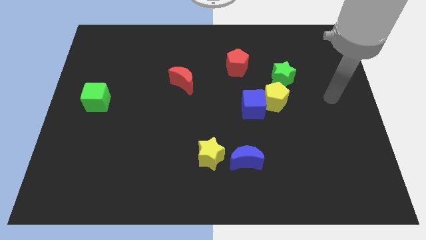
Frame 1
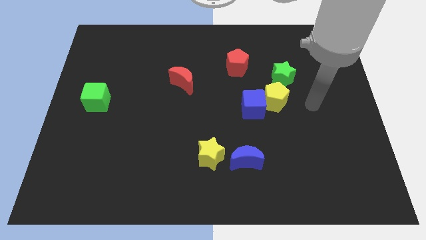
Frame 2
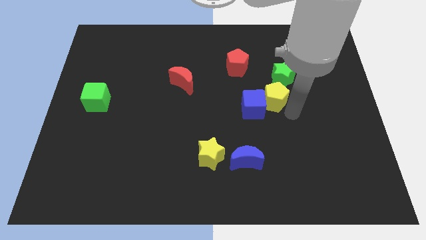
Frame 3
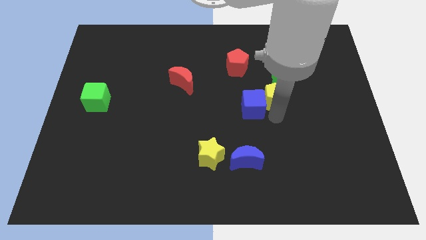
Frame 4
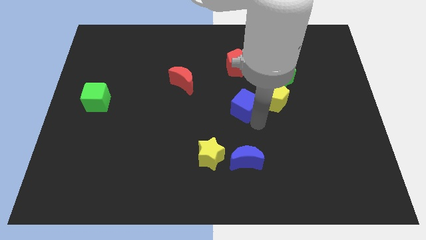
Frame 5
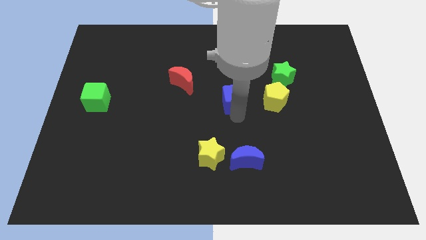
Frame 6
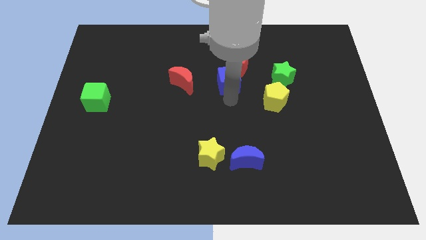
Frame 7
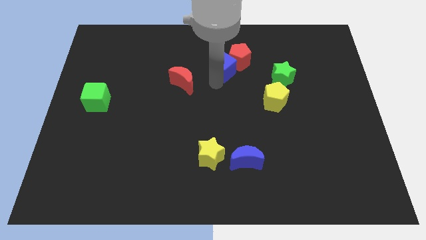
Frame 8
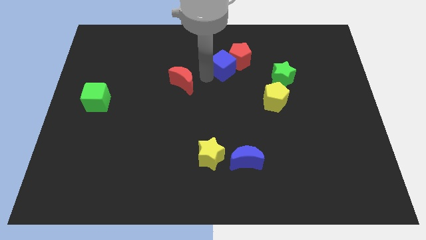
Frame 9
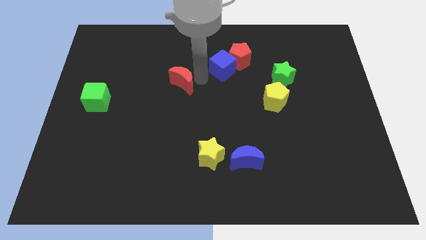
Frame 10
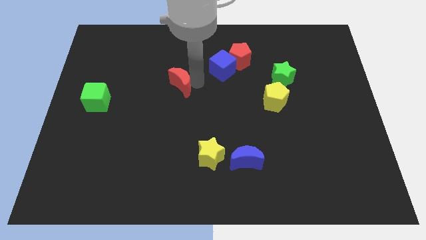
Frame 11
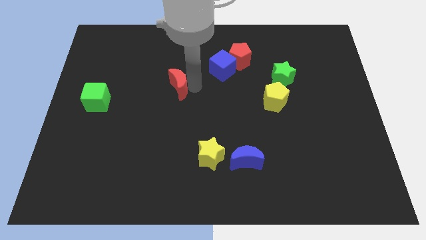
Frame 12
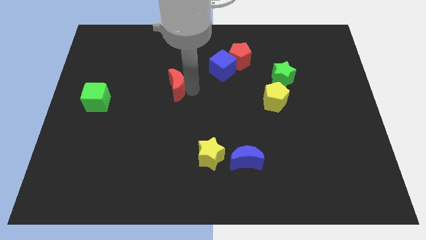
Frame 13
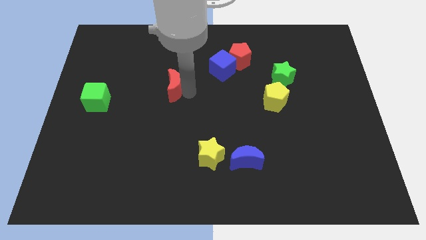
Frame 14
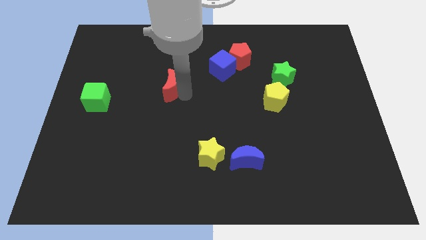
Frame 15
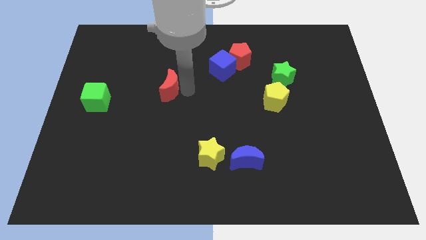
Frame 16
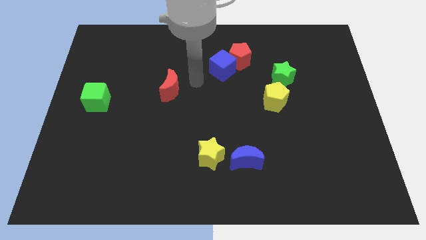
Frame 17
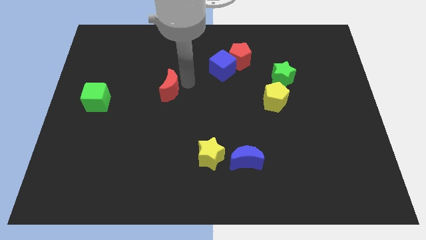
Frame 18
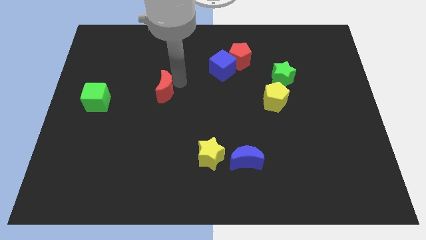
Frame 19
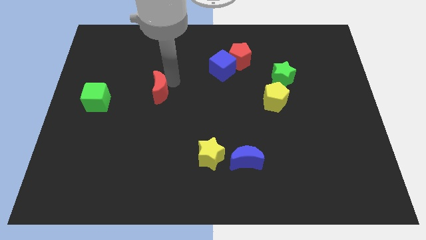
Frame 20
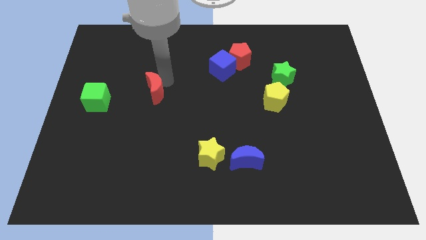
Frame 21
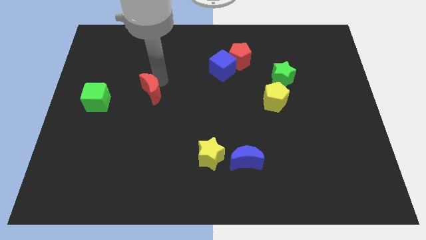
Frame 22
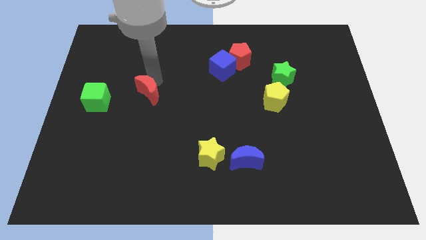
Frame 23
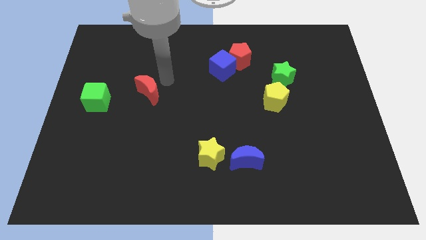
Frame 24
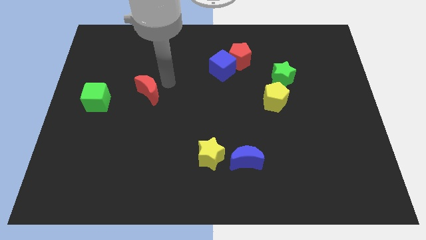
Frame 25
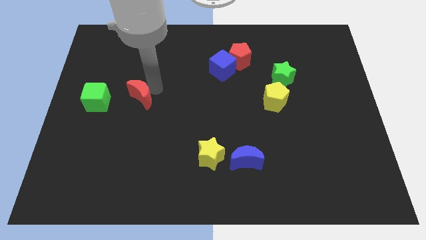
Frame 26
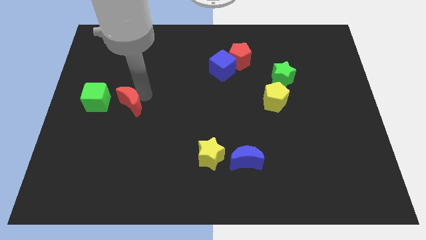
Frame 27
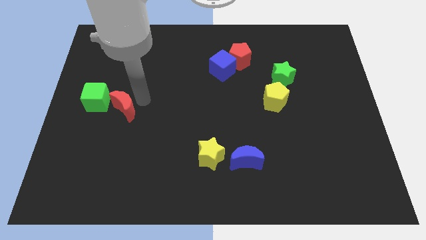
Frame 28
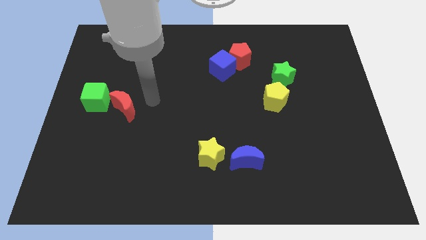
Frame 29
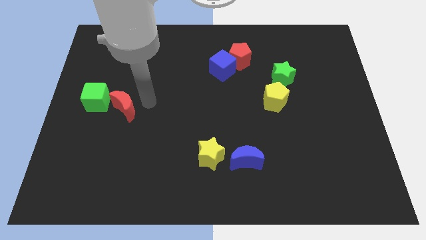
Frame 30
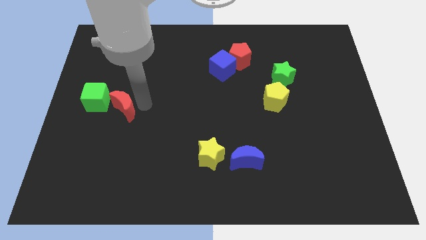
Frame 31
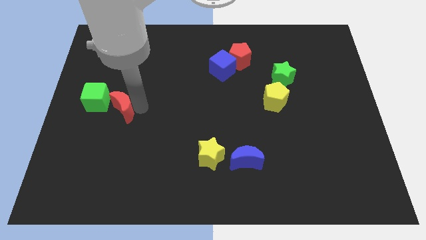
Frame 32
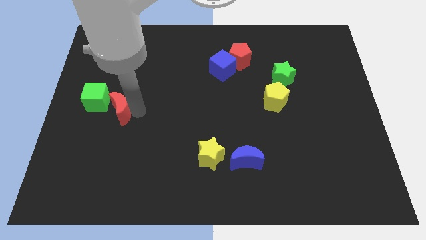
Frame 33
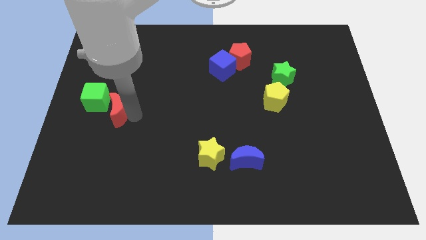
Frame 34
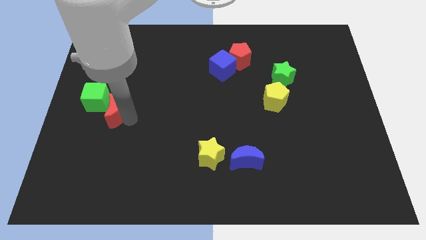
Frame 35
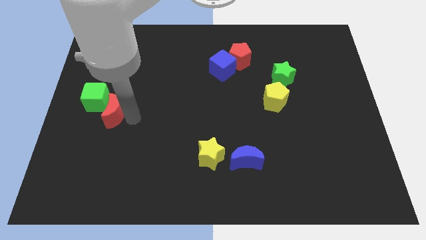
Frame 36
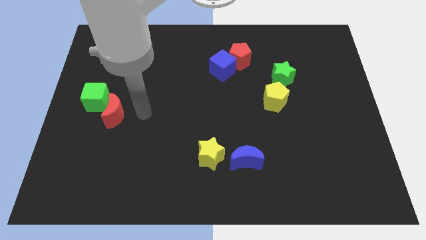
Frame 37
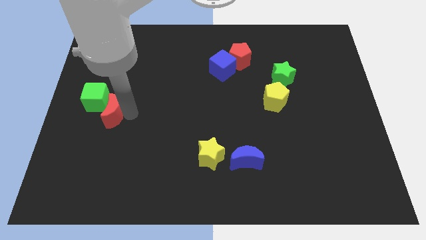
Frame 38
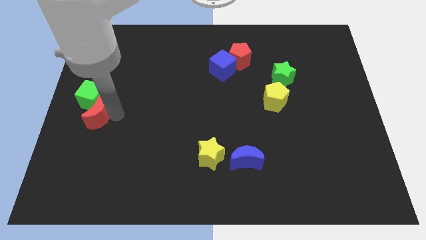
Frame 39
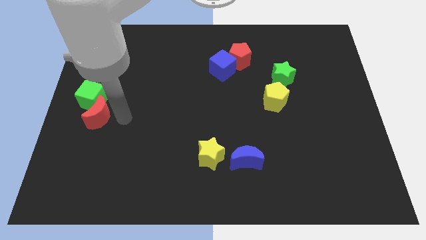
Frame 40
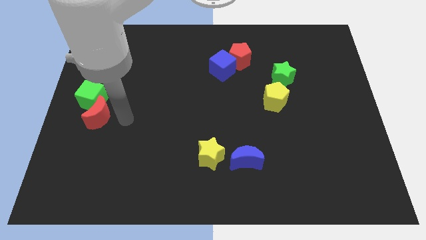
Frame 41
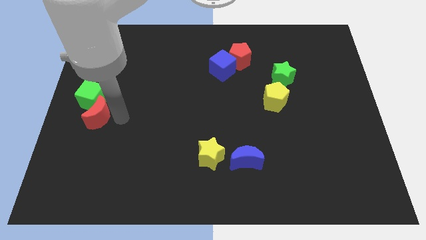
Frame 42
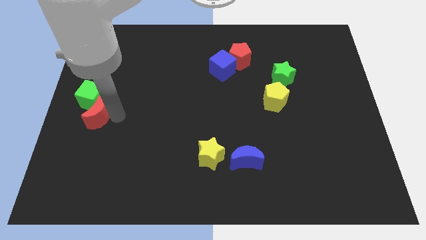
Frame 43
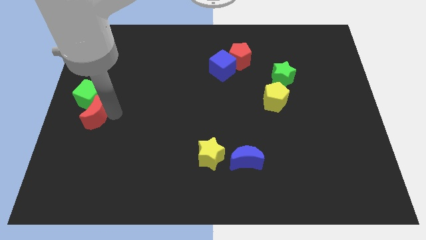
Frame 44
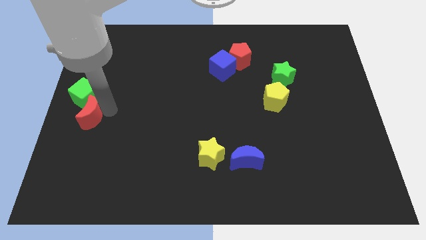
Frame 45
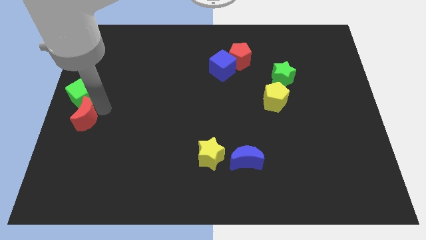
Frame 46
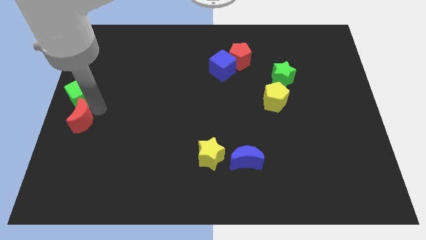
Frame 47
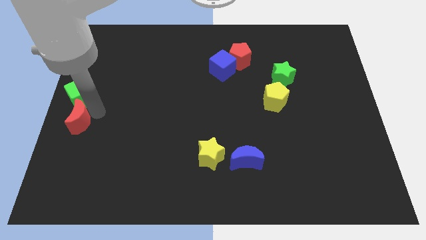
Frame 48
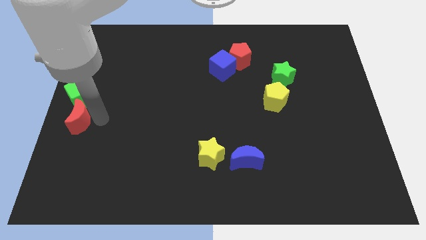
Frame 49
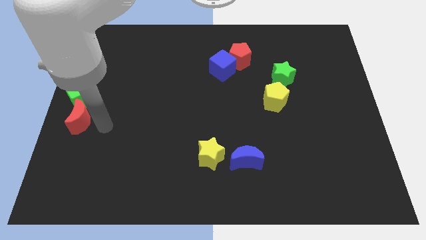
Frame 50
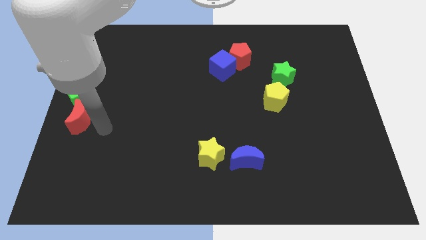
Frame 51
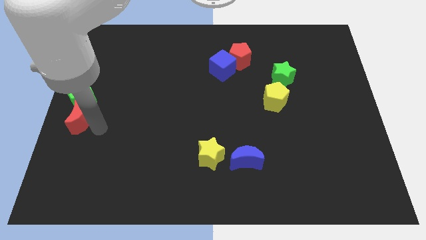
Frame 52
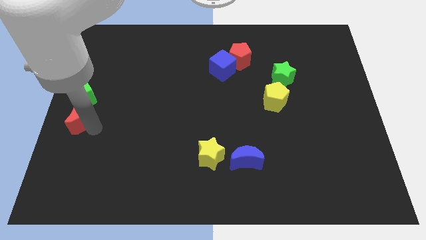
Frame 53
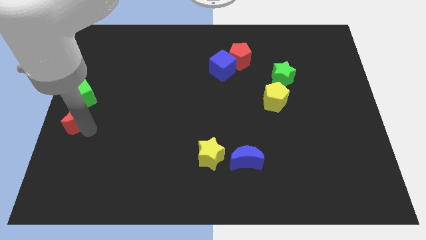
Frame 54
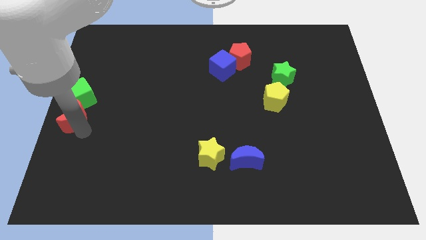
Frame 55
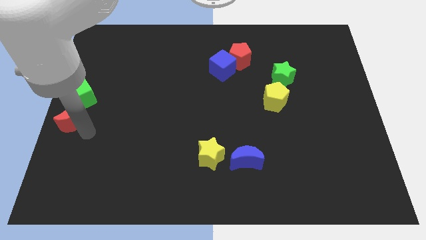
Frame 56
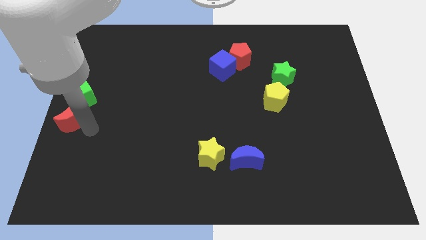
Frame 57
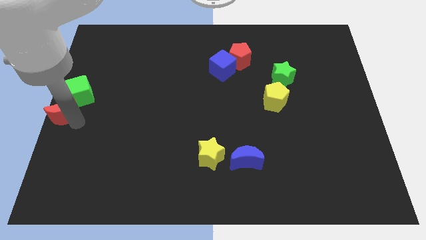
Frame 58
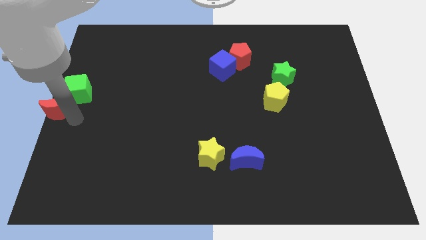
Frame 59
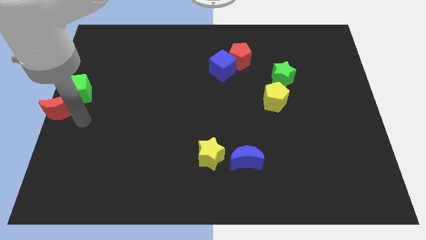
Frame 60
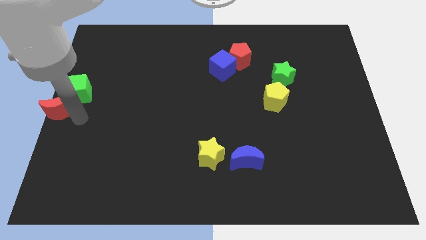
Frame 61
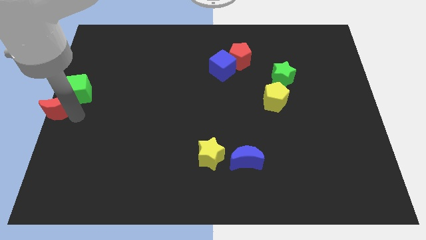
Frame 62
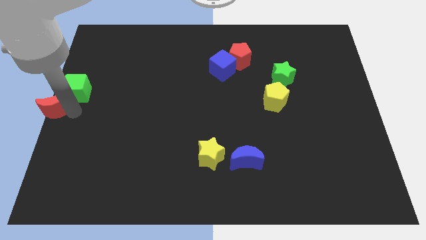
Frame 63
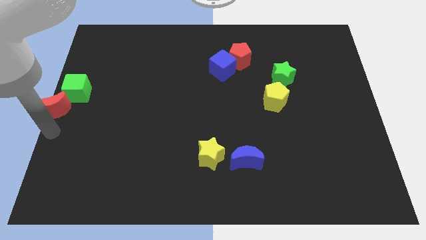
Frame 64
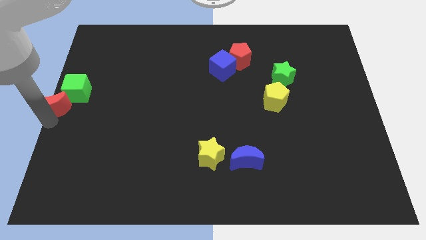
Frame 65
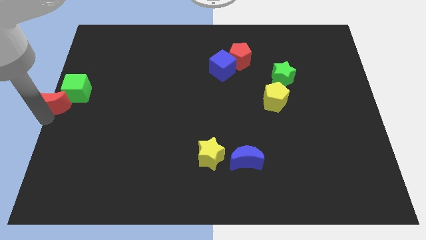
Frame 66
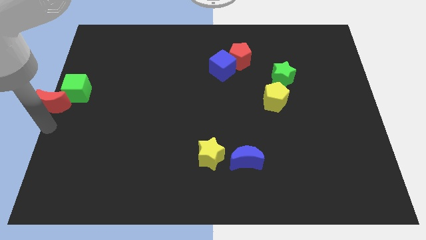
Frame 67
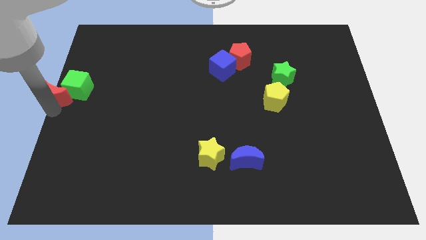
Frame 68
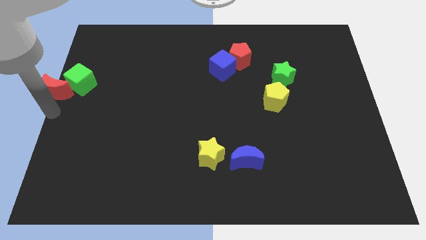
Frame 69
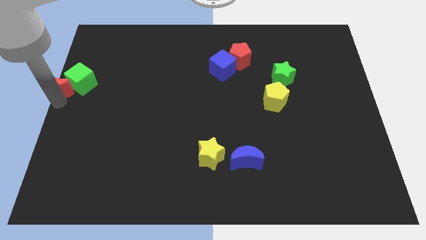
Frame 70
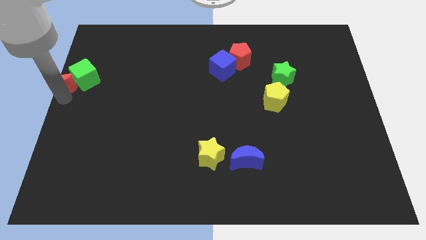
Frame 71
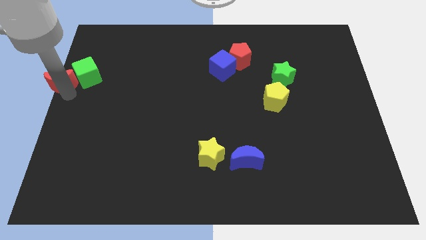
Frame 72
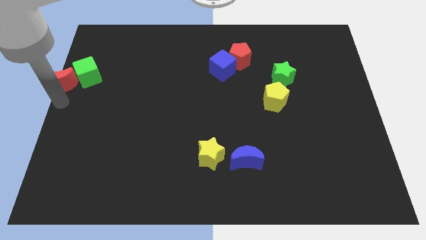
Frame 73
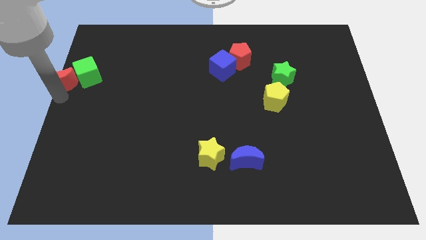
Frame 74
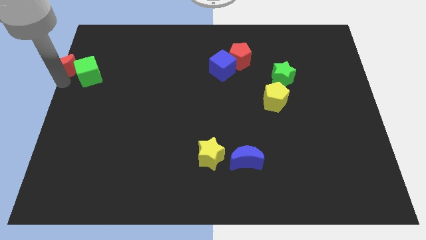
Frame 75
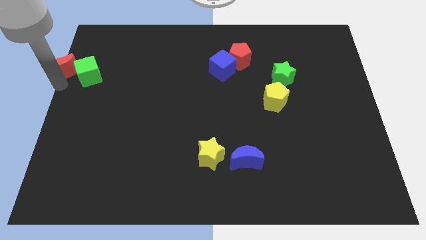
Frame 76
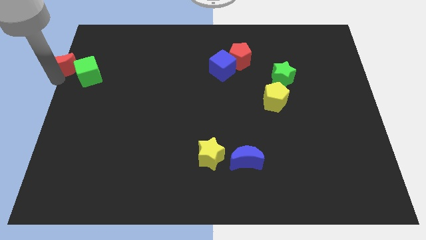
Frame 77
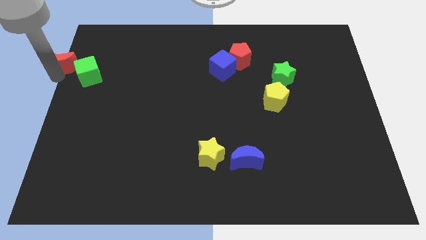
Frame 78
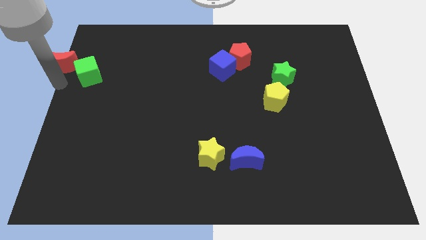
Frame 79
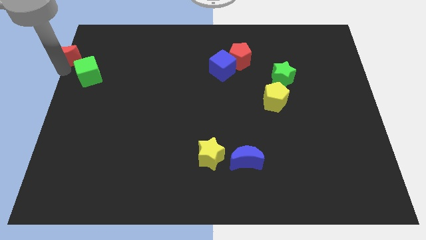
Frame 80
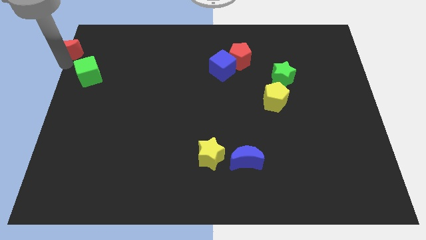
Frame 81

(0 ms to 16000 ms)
put the red moon to the upper left corner
